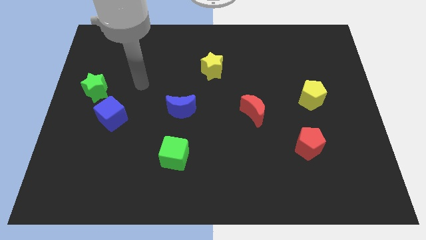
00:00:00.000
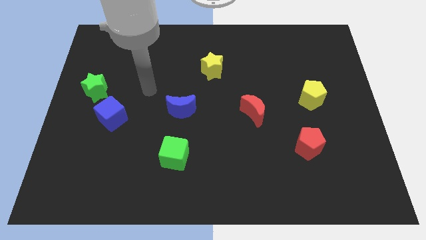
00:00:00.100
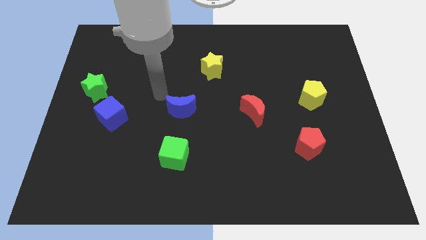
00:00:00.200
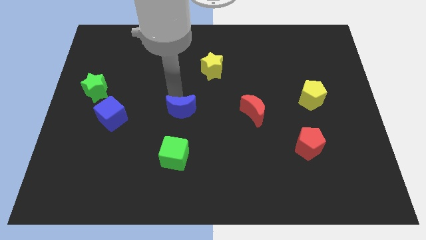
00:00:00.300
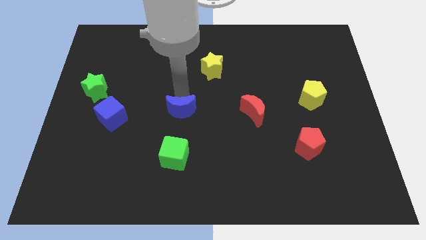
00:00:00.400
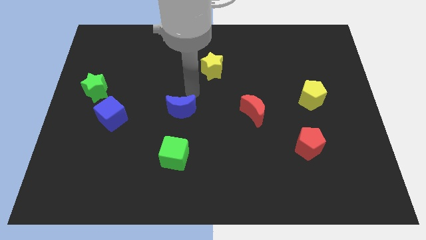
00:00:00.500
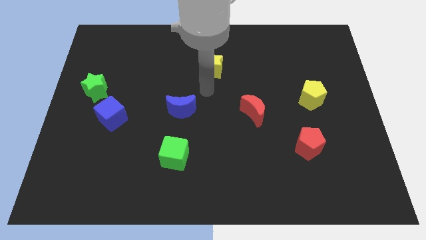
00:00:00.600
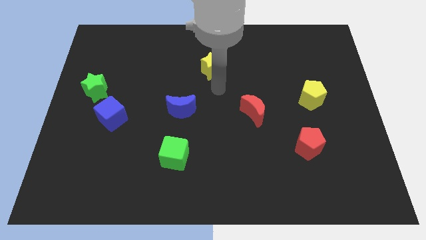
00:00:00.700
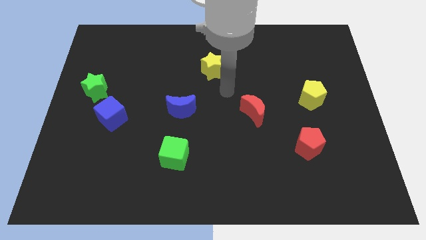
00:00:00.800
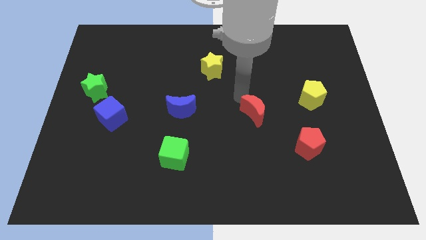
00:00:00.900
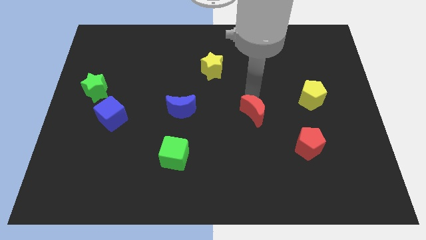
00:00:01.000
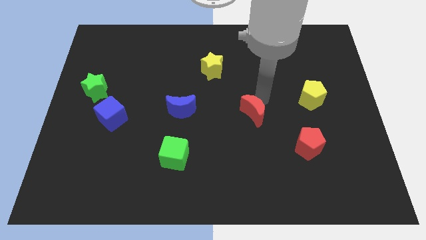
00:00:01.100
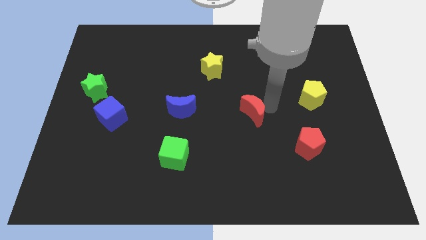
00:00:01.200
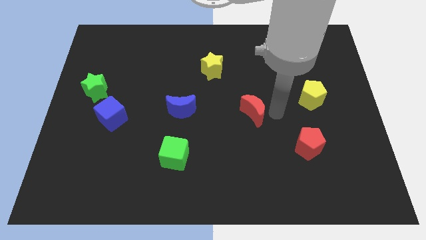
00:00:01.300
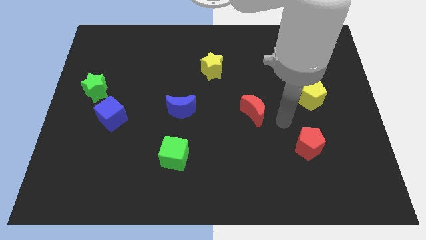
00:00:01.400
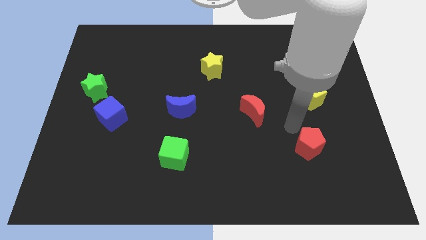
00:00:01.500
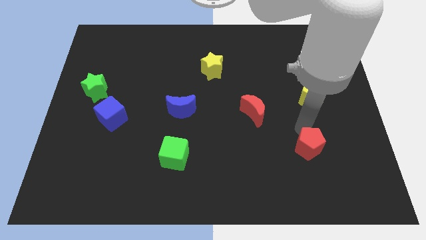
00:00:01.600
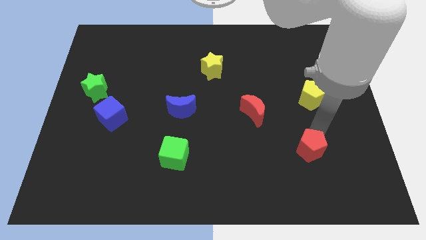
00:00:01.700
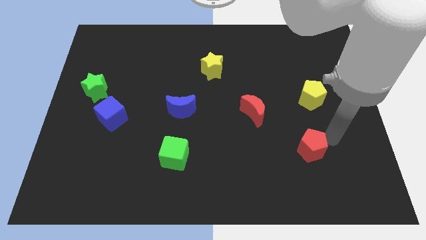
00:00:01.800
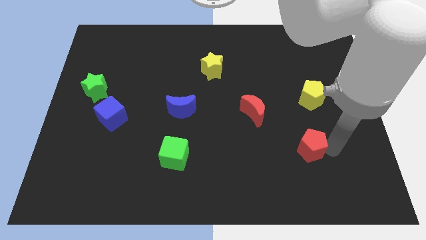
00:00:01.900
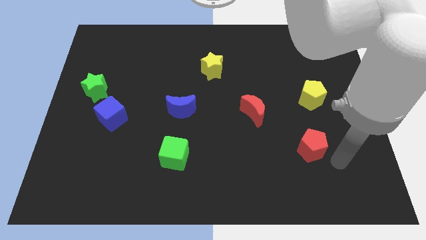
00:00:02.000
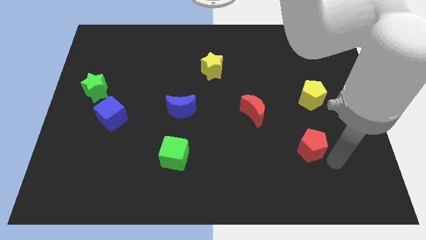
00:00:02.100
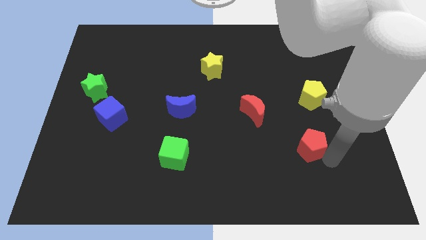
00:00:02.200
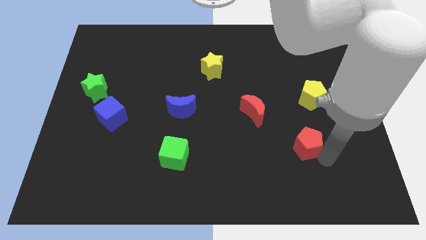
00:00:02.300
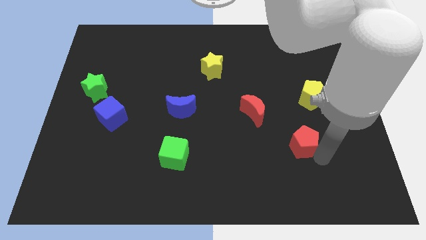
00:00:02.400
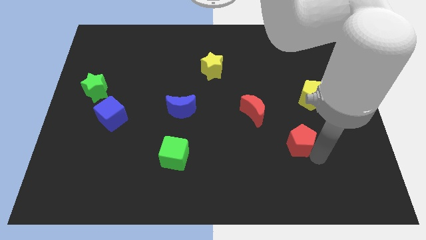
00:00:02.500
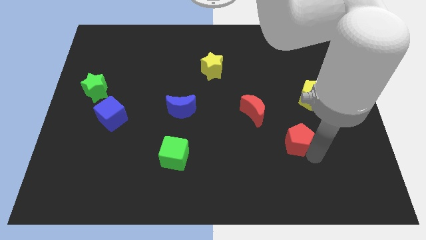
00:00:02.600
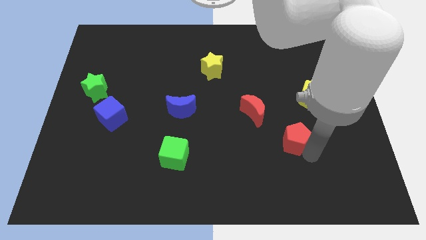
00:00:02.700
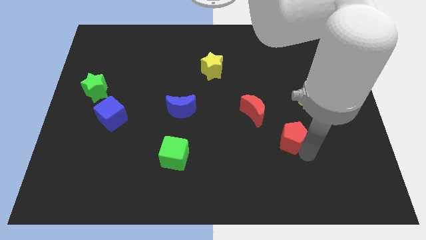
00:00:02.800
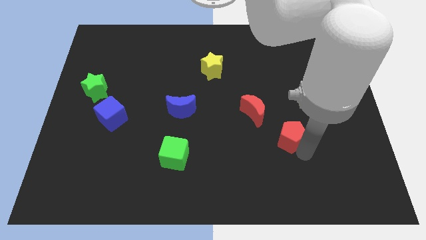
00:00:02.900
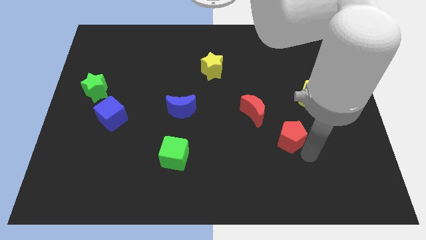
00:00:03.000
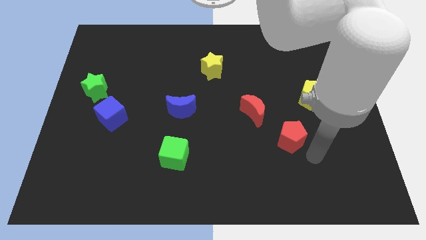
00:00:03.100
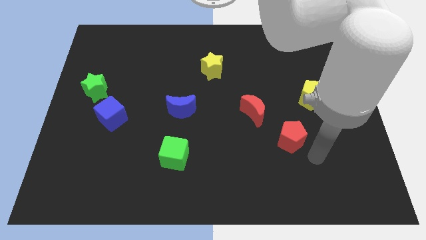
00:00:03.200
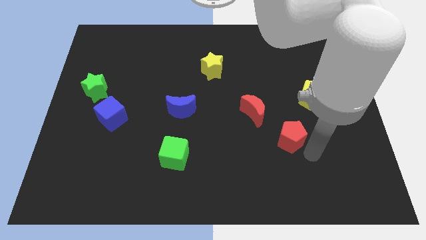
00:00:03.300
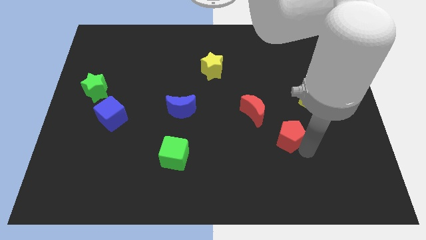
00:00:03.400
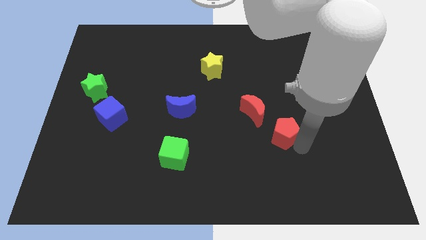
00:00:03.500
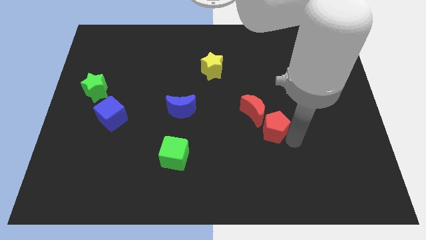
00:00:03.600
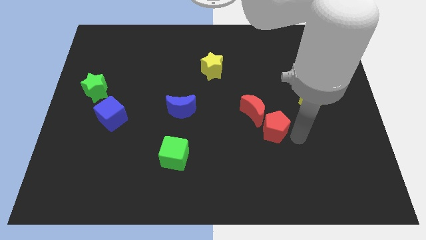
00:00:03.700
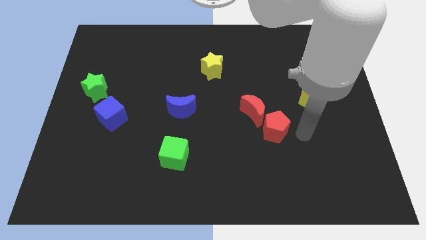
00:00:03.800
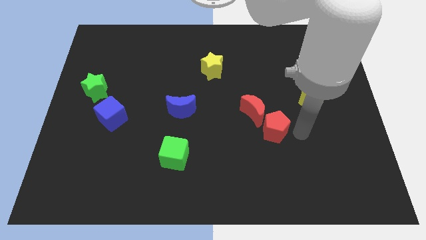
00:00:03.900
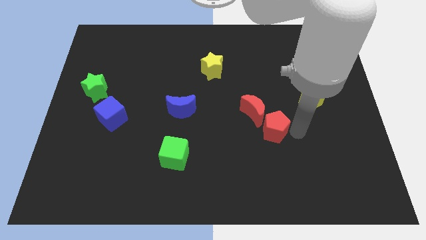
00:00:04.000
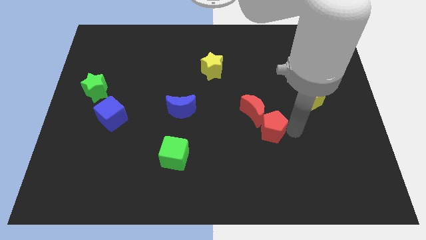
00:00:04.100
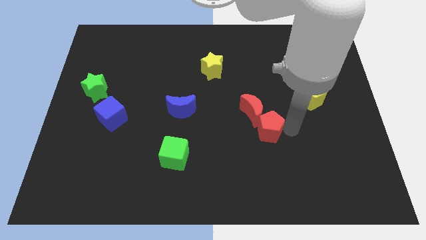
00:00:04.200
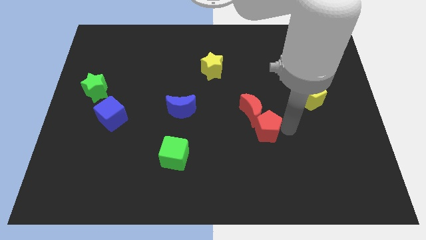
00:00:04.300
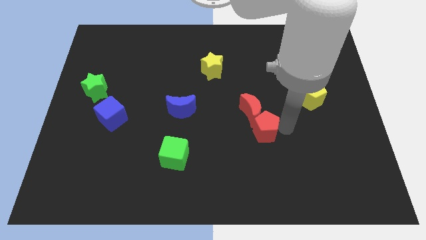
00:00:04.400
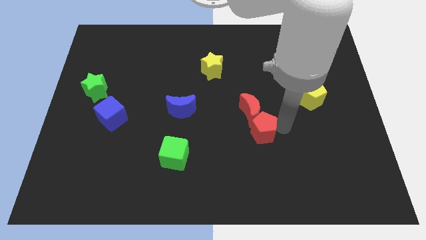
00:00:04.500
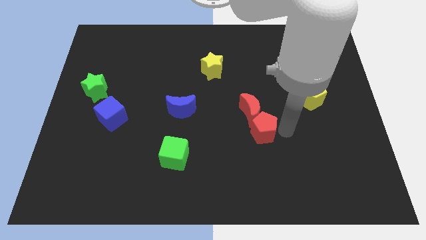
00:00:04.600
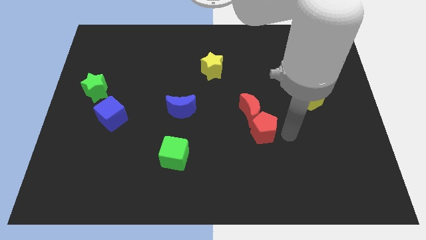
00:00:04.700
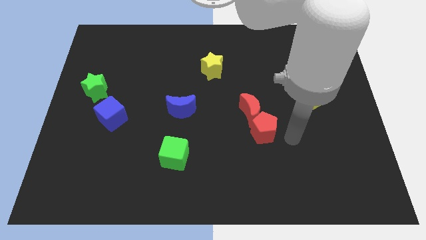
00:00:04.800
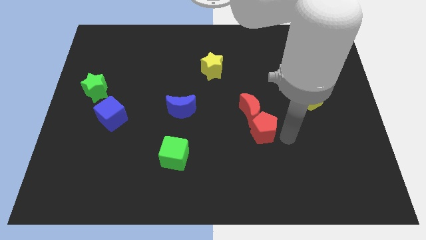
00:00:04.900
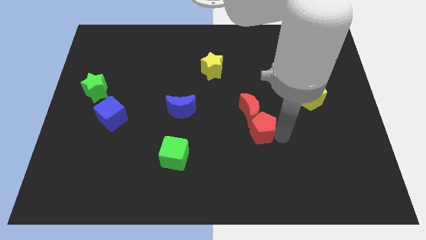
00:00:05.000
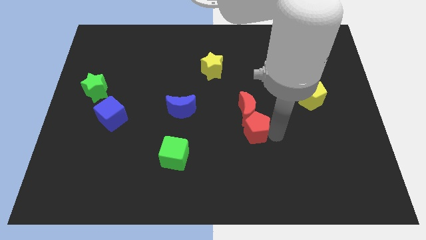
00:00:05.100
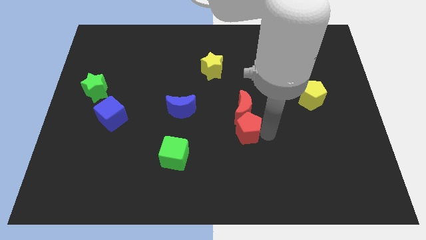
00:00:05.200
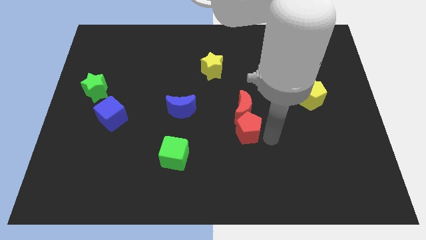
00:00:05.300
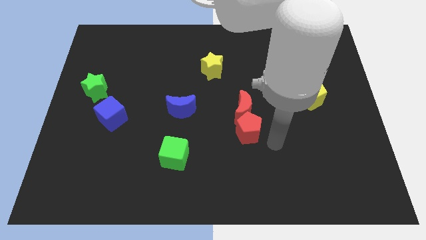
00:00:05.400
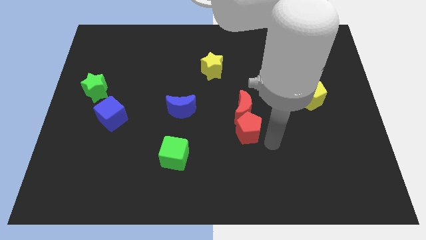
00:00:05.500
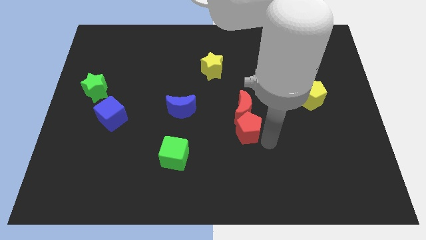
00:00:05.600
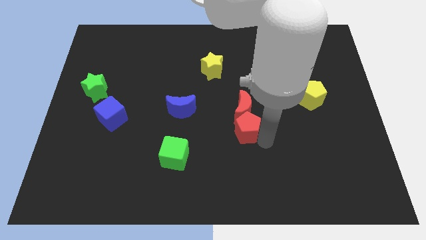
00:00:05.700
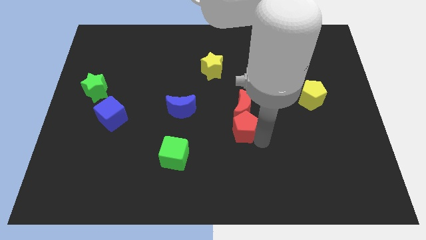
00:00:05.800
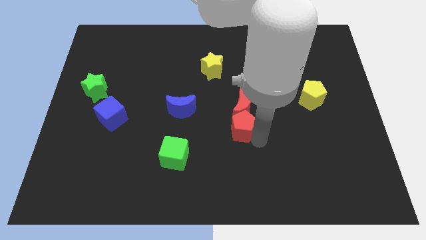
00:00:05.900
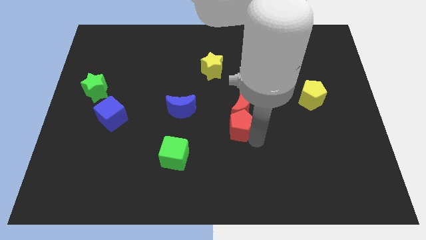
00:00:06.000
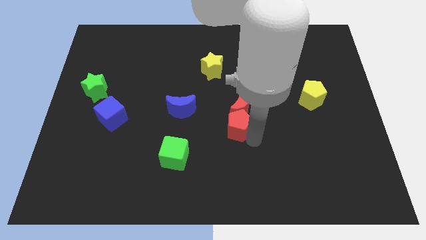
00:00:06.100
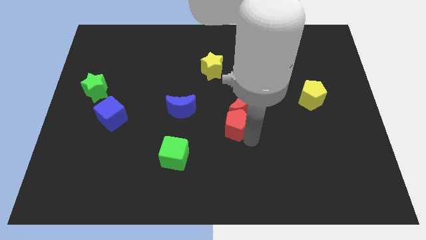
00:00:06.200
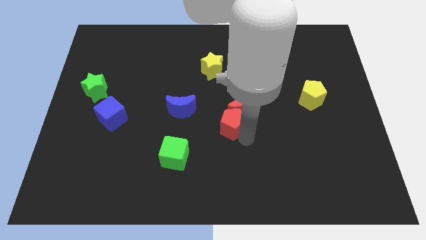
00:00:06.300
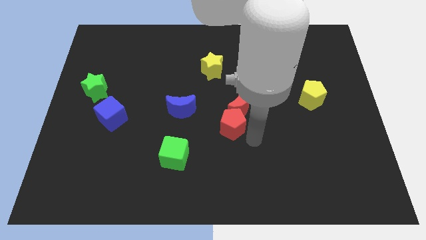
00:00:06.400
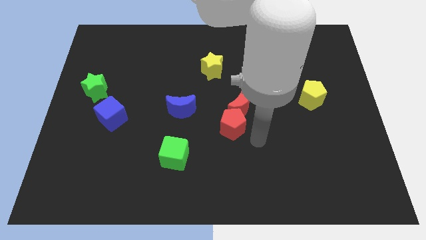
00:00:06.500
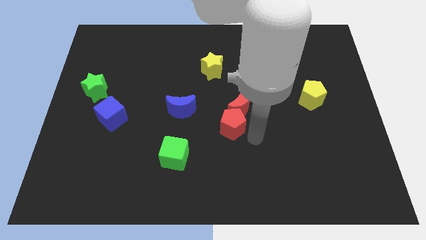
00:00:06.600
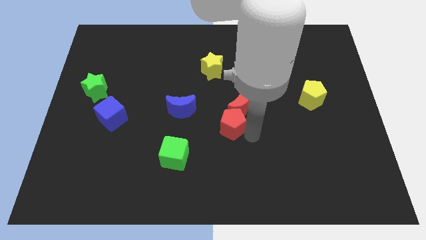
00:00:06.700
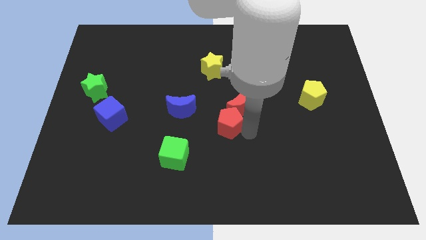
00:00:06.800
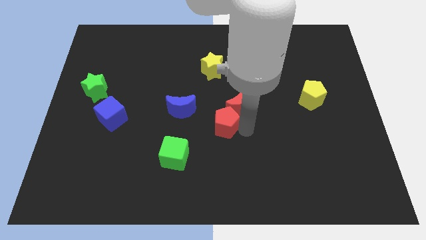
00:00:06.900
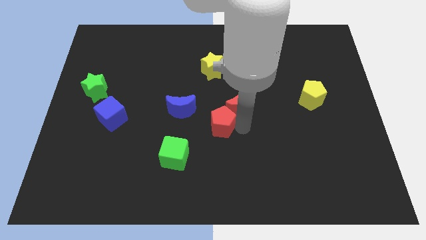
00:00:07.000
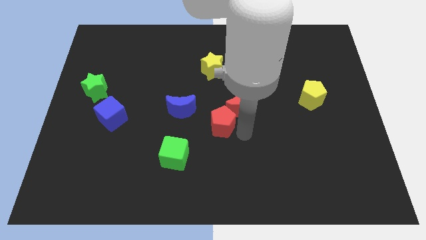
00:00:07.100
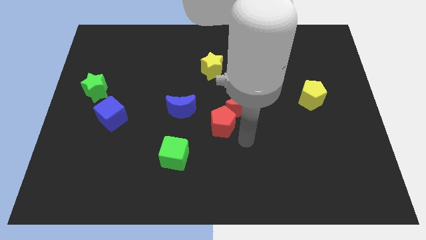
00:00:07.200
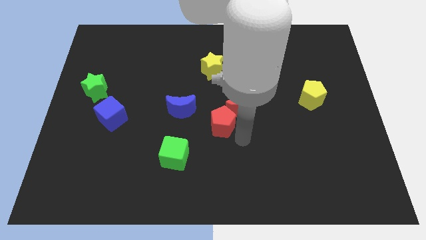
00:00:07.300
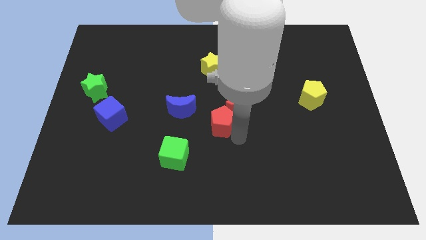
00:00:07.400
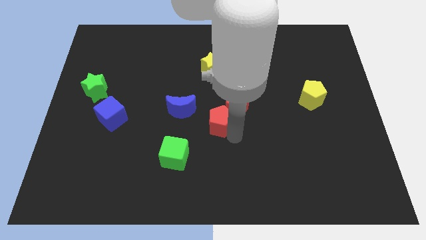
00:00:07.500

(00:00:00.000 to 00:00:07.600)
put the red pentagon just left of the red moon
